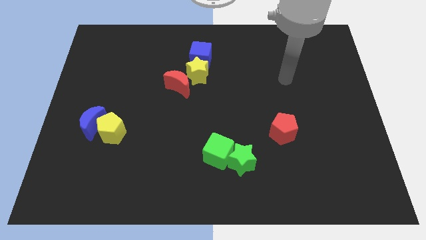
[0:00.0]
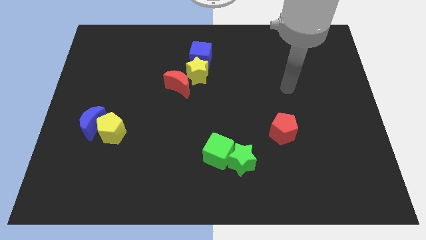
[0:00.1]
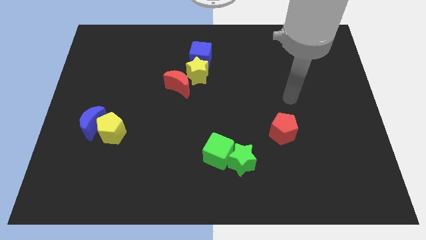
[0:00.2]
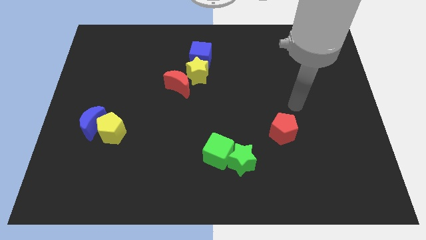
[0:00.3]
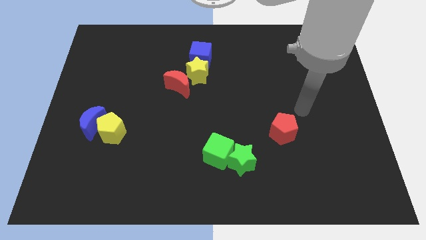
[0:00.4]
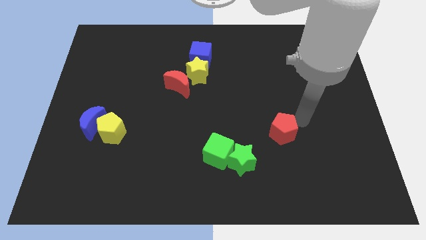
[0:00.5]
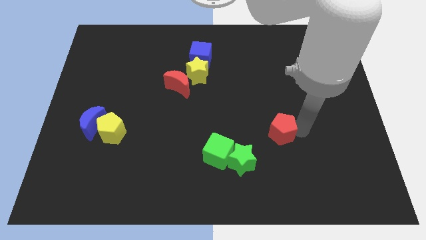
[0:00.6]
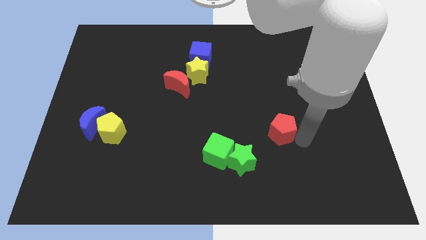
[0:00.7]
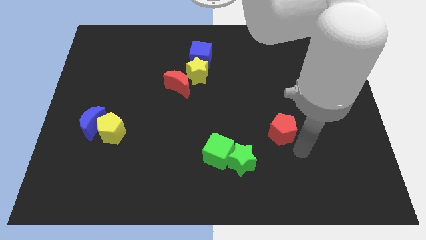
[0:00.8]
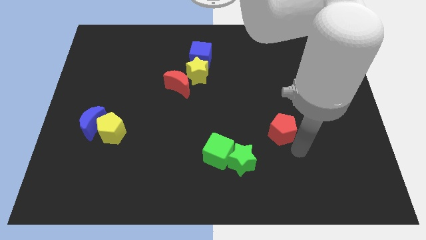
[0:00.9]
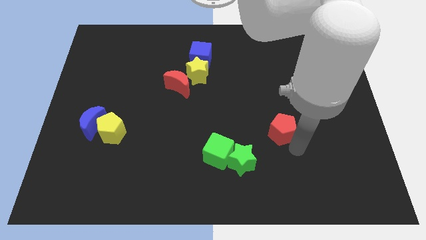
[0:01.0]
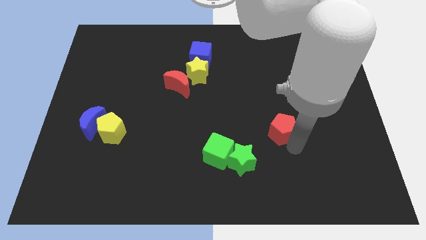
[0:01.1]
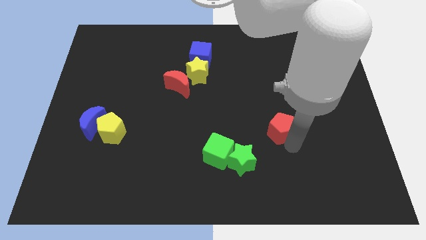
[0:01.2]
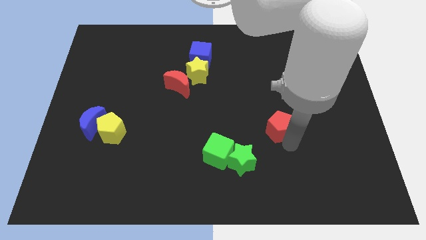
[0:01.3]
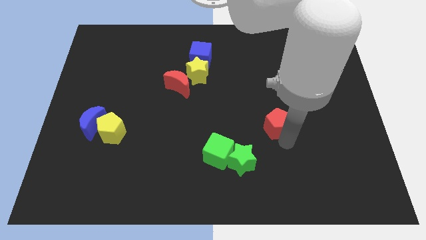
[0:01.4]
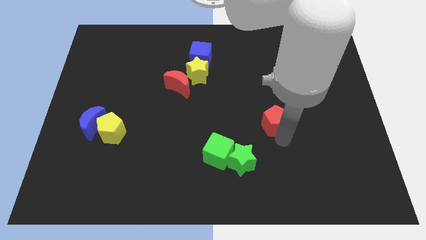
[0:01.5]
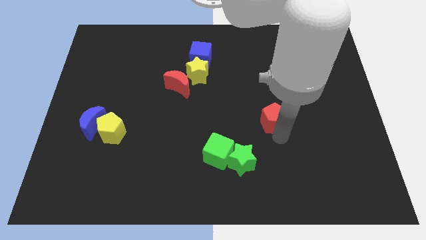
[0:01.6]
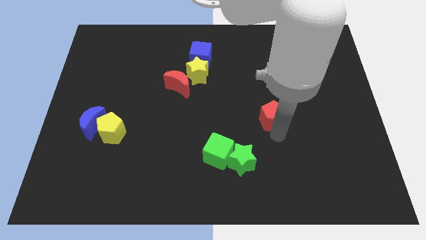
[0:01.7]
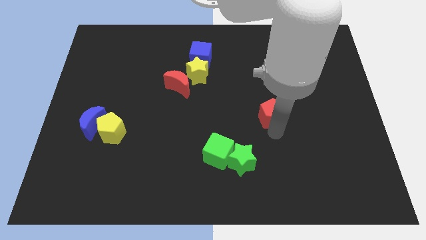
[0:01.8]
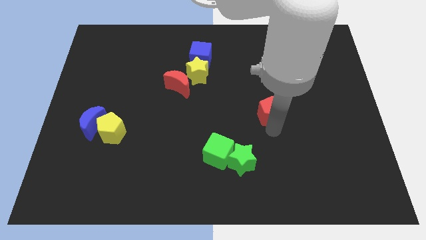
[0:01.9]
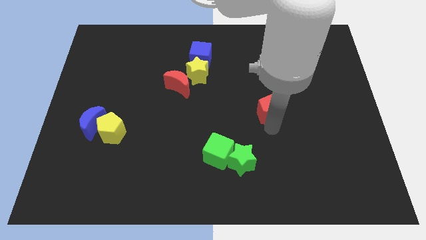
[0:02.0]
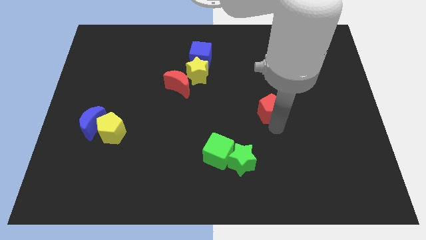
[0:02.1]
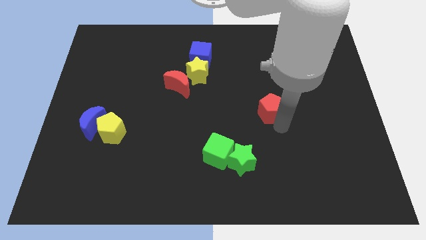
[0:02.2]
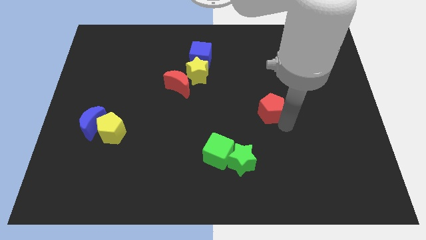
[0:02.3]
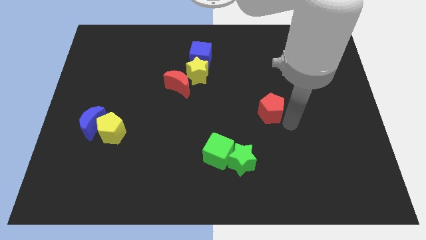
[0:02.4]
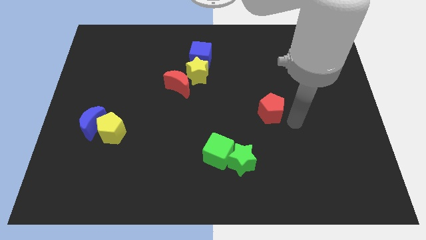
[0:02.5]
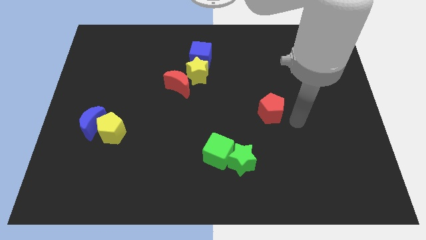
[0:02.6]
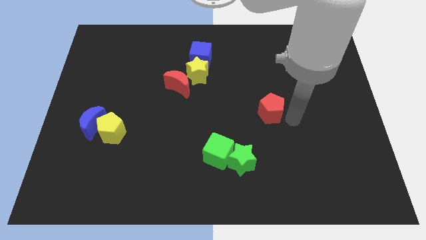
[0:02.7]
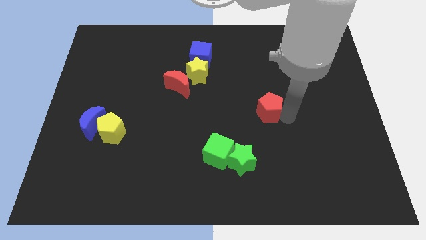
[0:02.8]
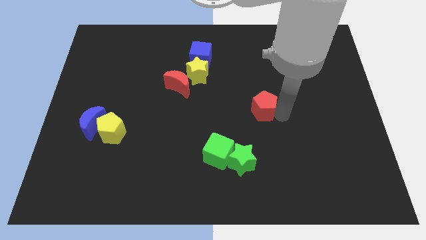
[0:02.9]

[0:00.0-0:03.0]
slide the red pentagon slightly up and then to the left

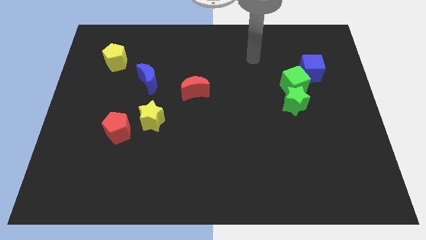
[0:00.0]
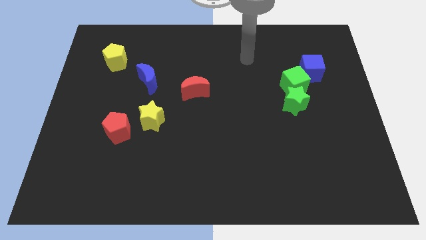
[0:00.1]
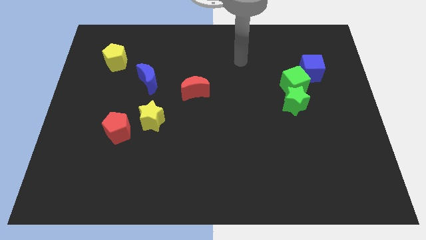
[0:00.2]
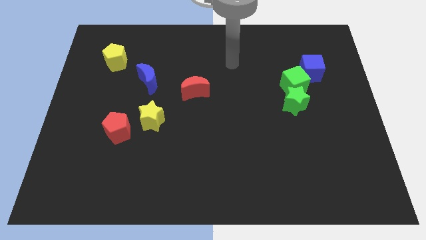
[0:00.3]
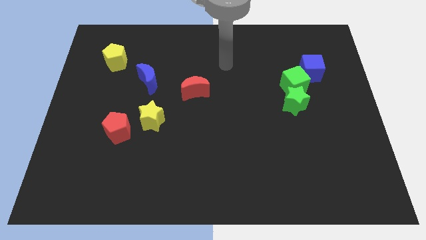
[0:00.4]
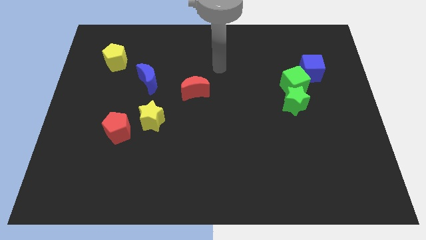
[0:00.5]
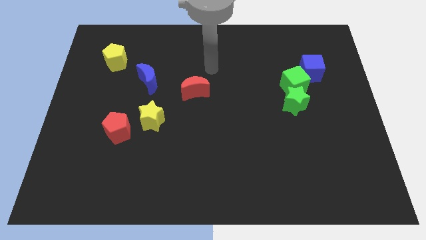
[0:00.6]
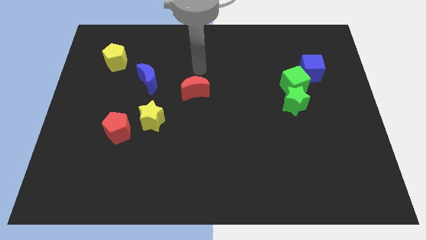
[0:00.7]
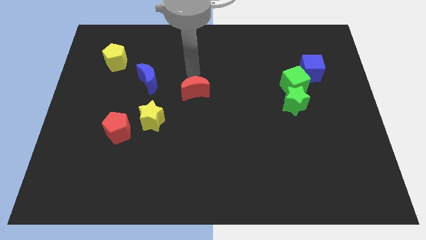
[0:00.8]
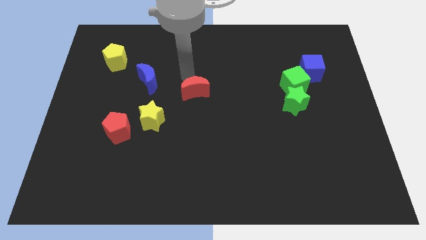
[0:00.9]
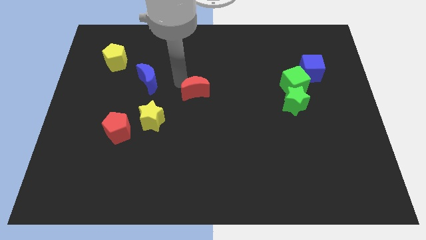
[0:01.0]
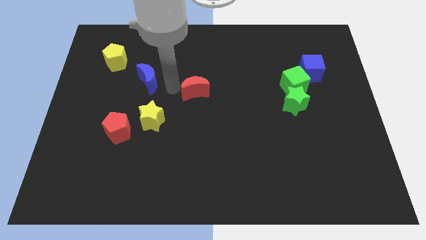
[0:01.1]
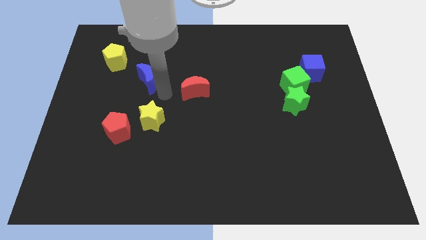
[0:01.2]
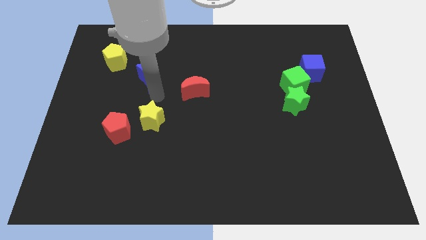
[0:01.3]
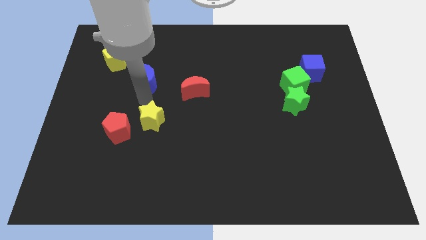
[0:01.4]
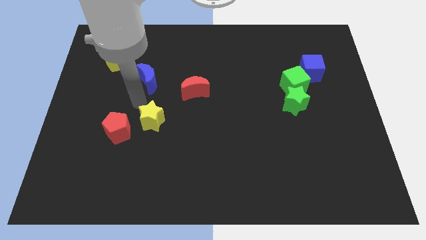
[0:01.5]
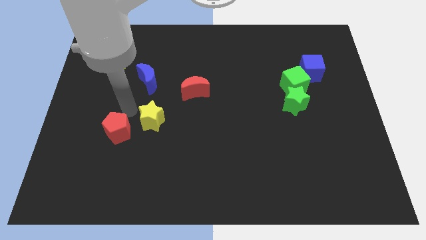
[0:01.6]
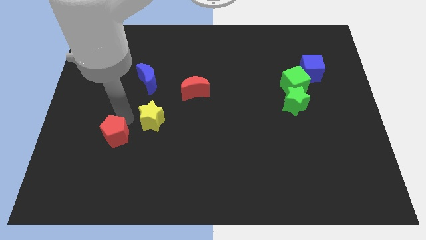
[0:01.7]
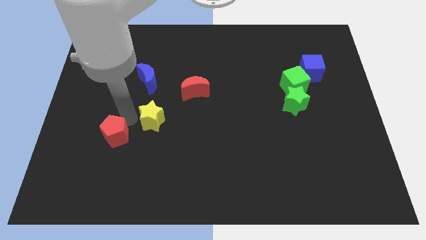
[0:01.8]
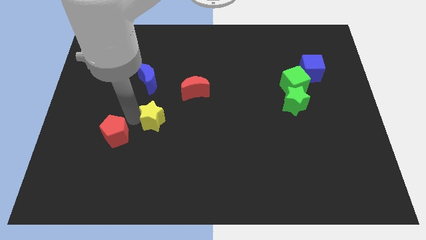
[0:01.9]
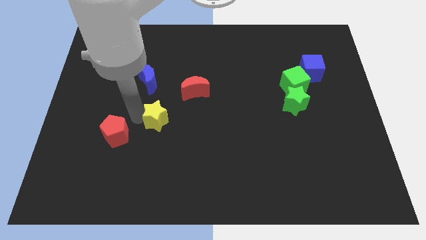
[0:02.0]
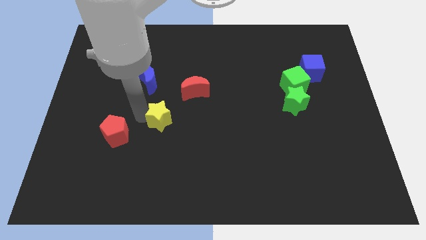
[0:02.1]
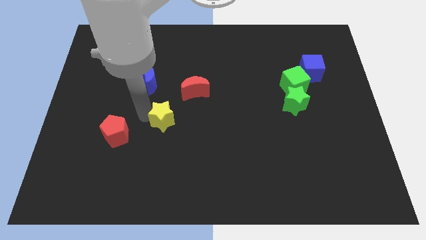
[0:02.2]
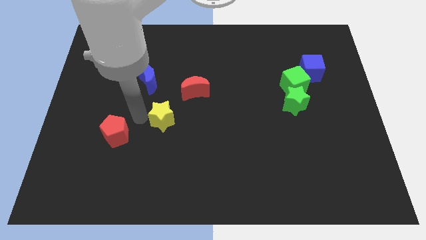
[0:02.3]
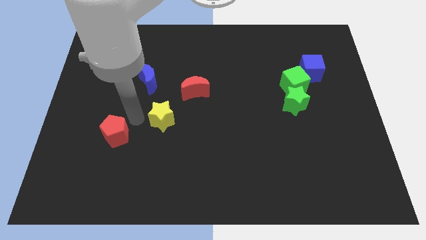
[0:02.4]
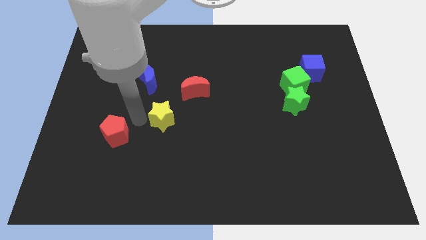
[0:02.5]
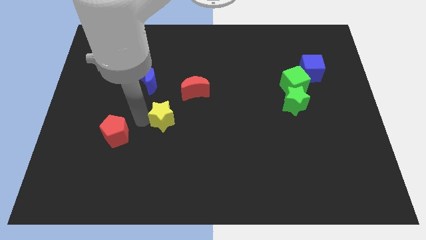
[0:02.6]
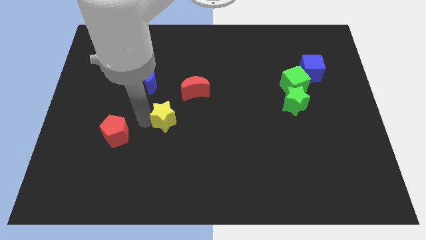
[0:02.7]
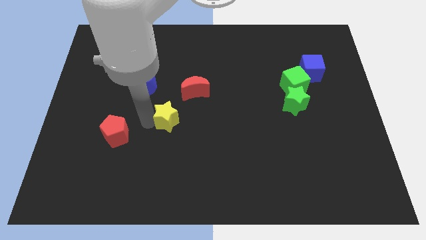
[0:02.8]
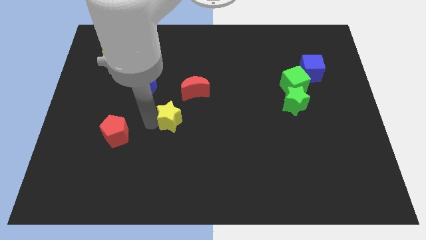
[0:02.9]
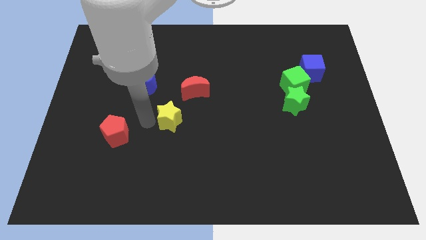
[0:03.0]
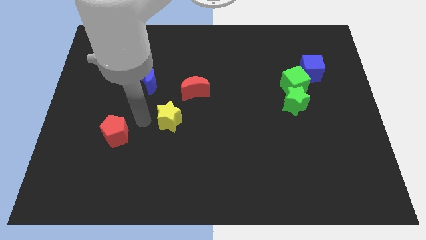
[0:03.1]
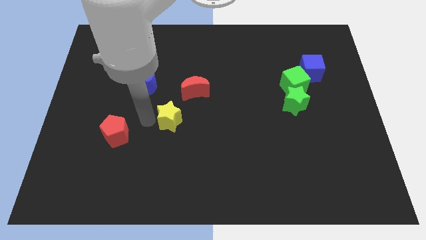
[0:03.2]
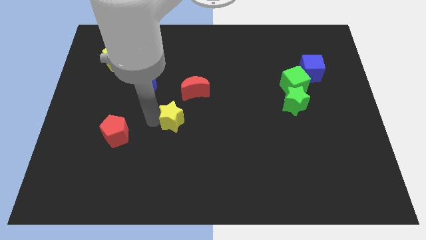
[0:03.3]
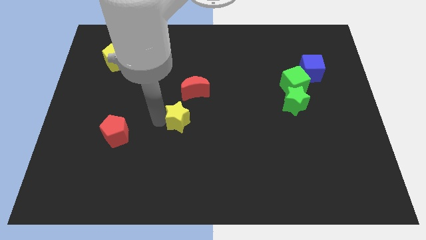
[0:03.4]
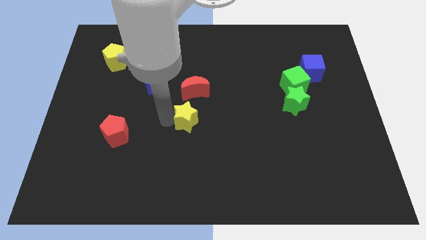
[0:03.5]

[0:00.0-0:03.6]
slide the yellow star slightly to the right

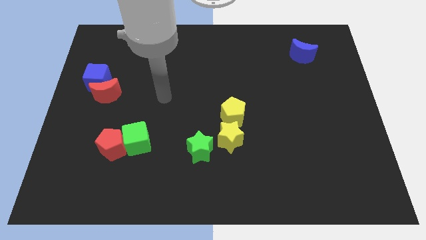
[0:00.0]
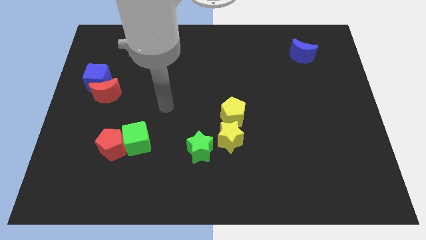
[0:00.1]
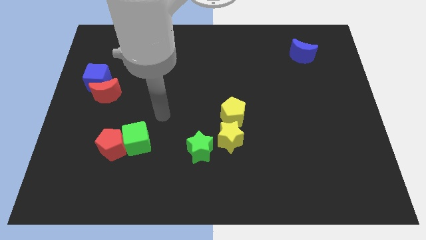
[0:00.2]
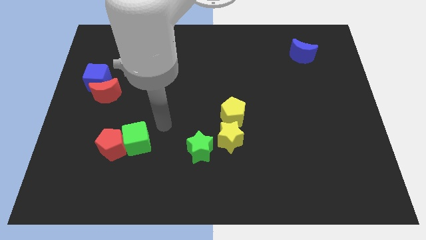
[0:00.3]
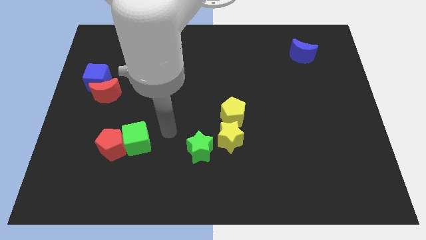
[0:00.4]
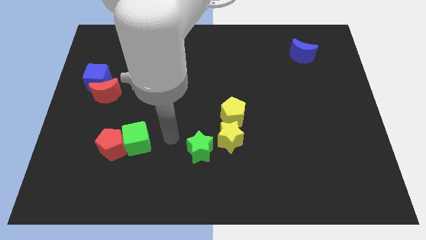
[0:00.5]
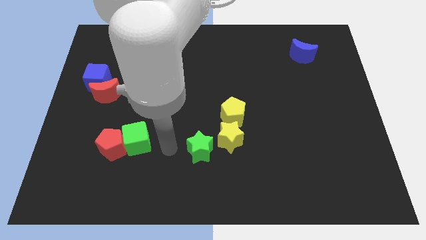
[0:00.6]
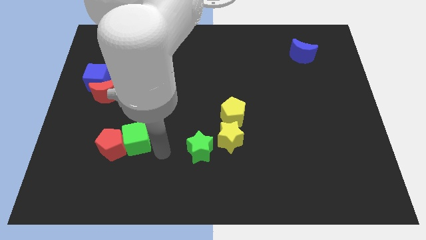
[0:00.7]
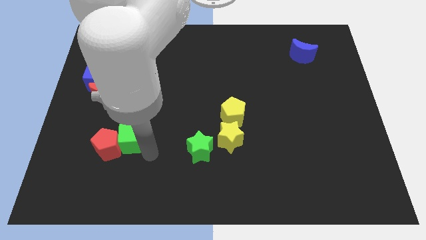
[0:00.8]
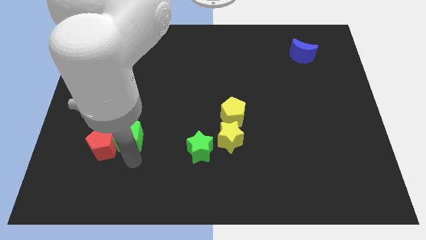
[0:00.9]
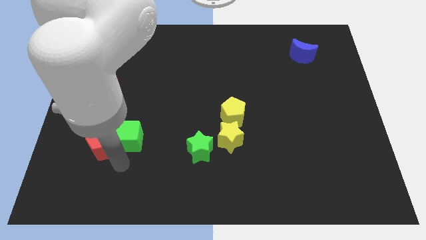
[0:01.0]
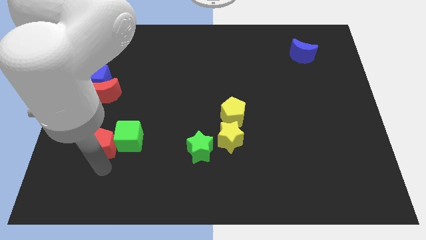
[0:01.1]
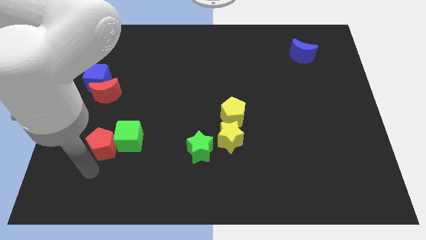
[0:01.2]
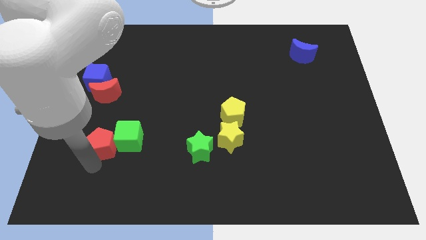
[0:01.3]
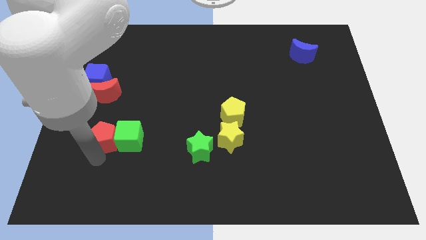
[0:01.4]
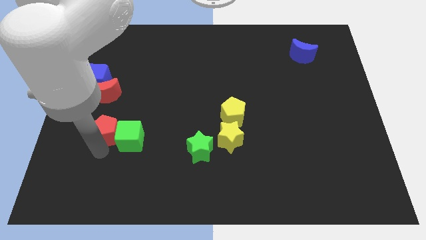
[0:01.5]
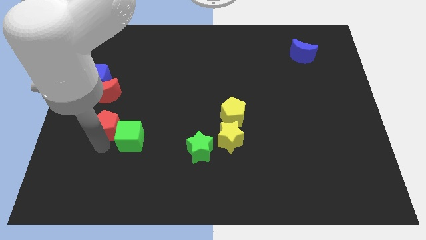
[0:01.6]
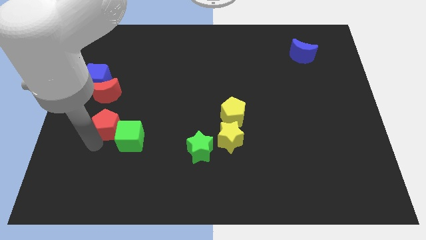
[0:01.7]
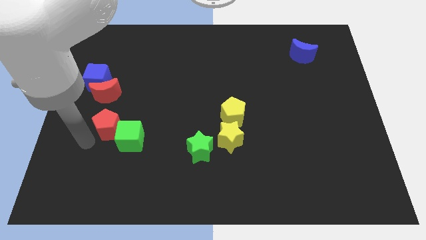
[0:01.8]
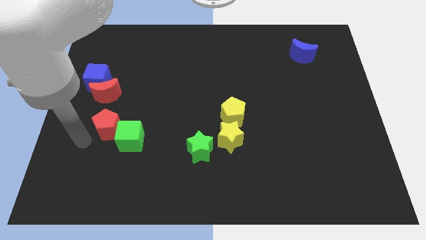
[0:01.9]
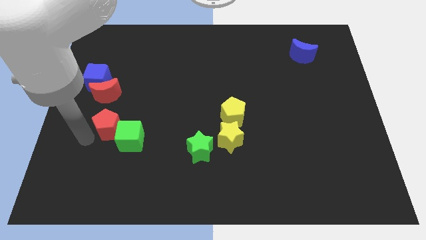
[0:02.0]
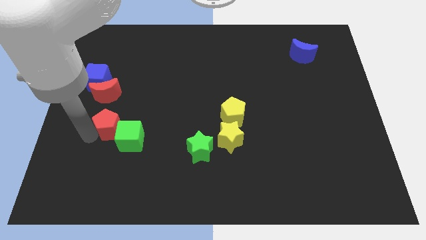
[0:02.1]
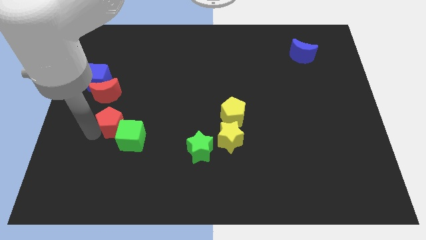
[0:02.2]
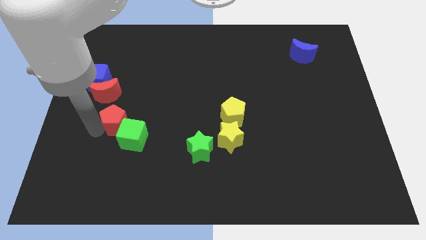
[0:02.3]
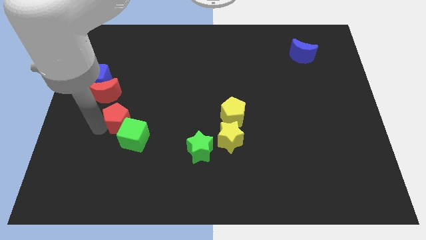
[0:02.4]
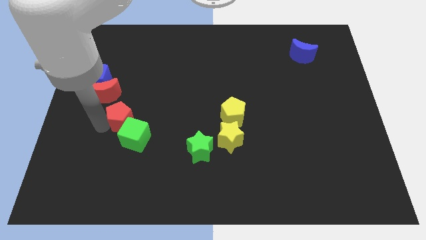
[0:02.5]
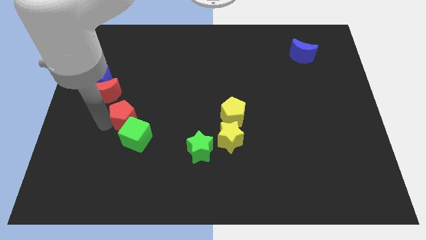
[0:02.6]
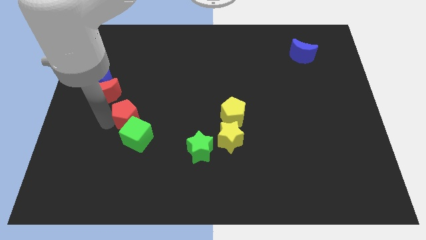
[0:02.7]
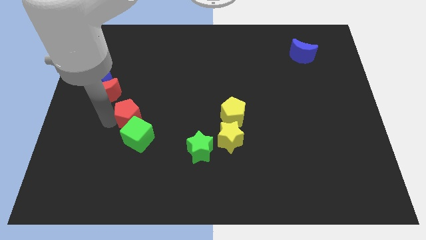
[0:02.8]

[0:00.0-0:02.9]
push the red pentagon a bit up and right diagonally
